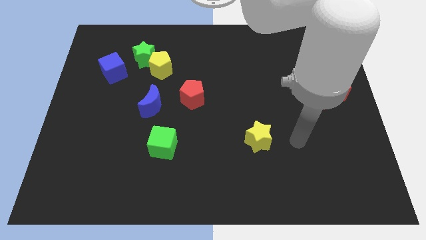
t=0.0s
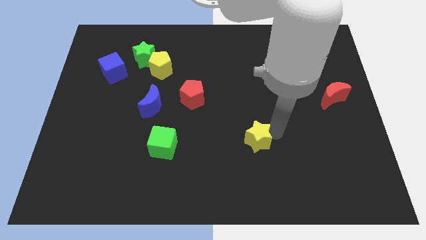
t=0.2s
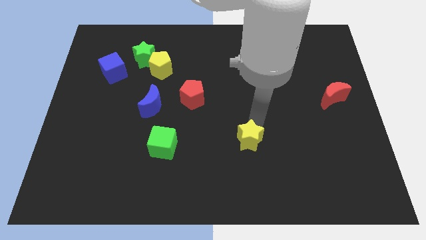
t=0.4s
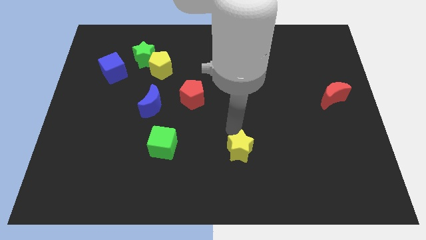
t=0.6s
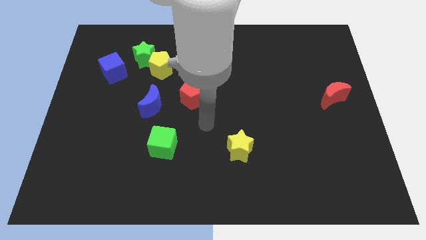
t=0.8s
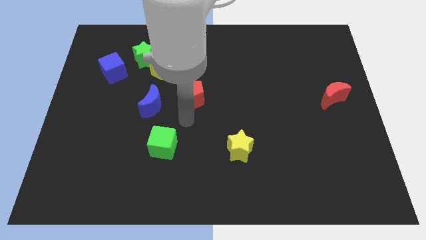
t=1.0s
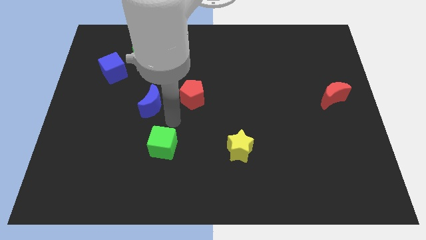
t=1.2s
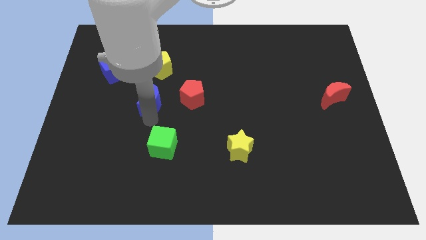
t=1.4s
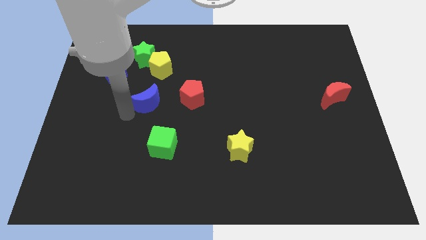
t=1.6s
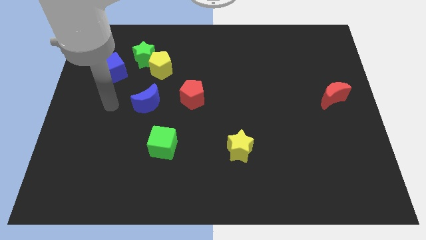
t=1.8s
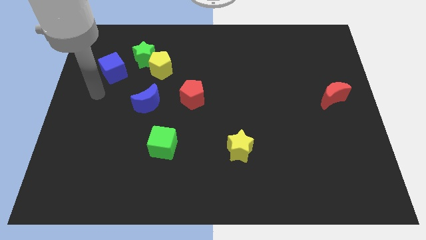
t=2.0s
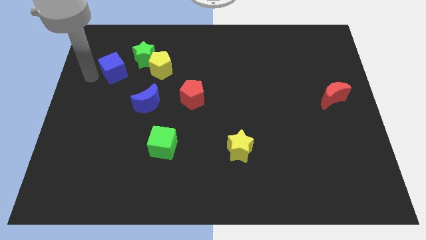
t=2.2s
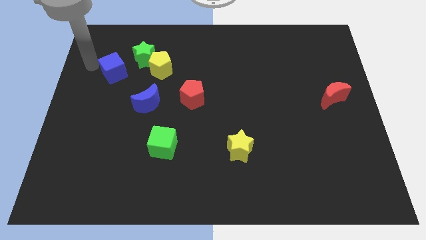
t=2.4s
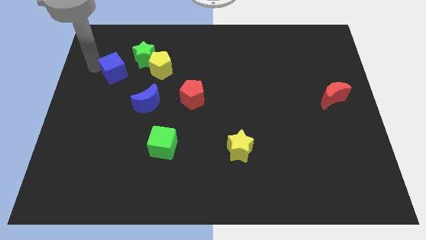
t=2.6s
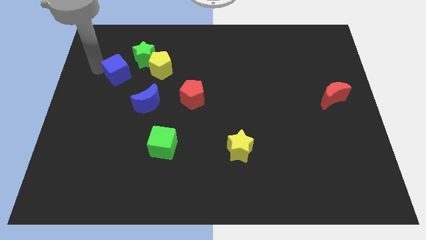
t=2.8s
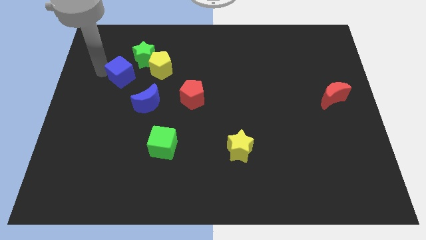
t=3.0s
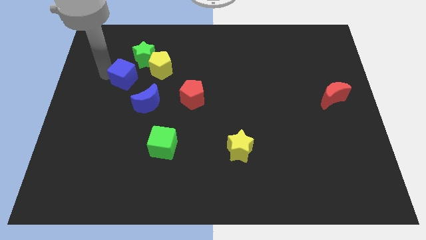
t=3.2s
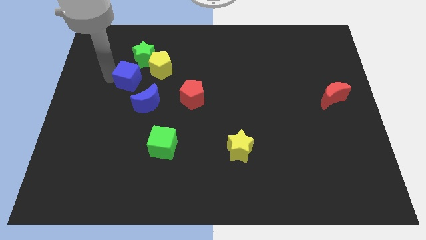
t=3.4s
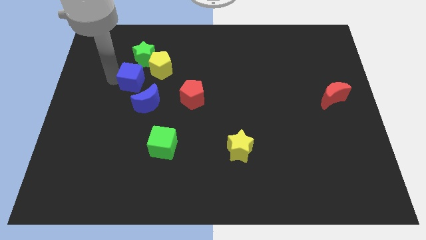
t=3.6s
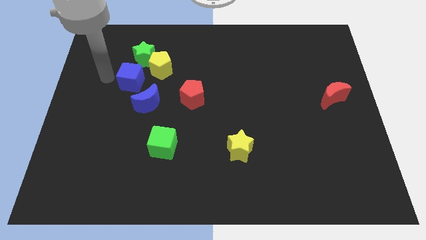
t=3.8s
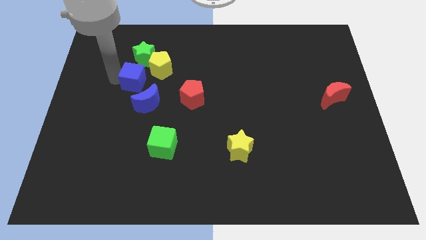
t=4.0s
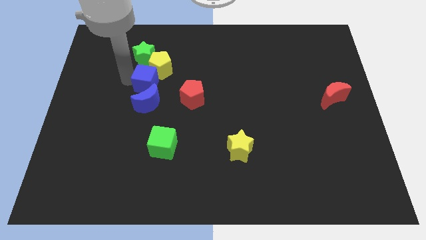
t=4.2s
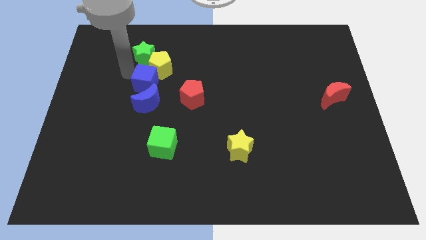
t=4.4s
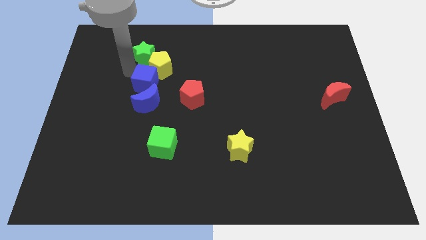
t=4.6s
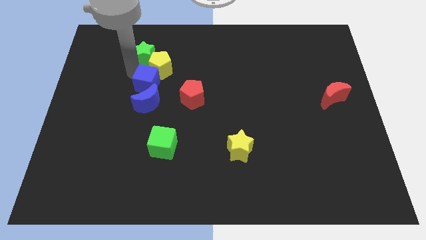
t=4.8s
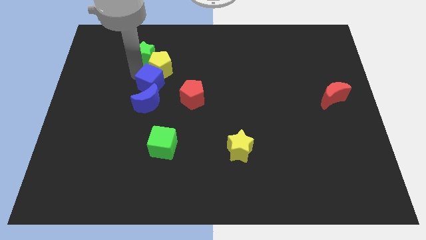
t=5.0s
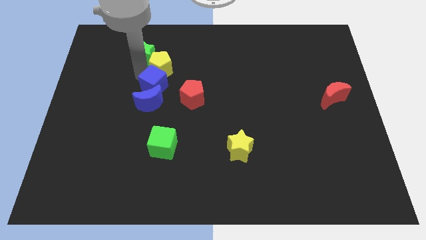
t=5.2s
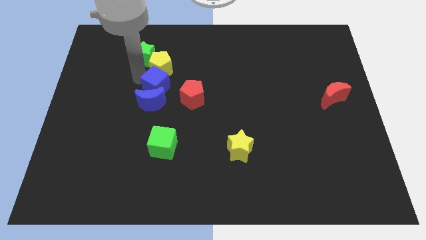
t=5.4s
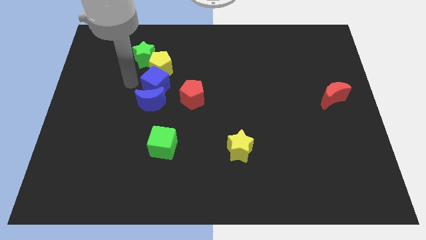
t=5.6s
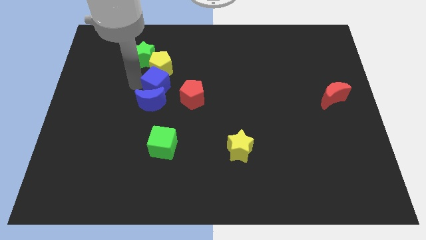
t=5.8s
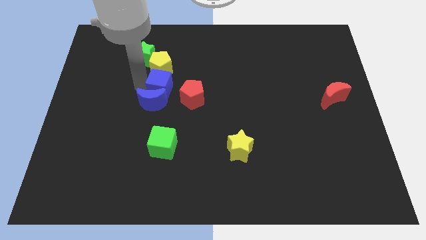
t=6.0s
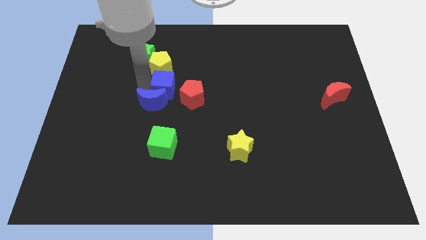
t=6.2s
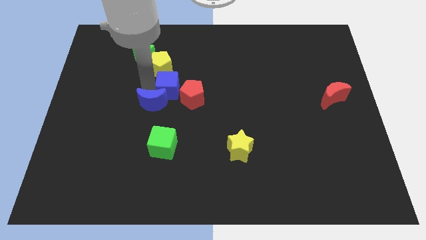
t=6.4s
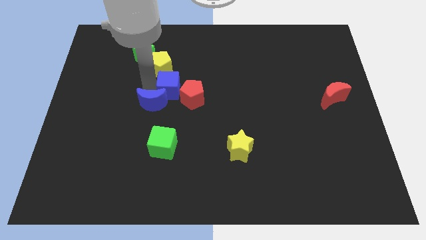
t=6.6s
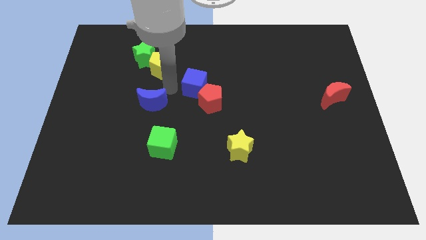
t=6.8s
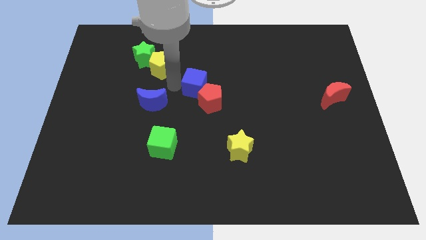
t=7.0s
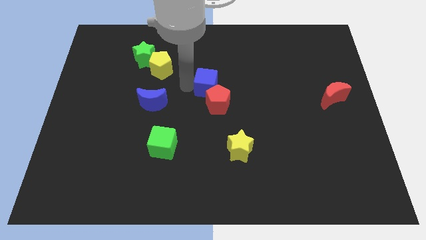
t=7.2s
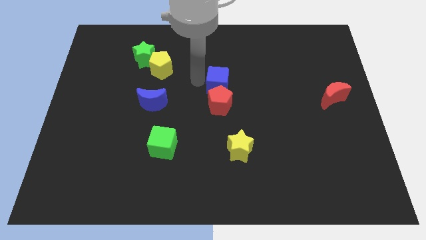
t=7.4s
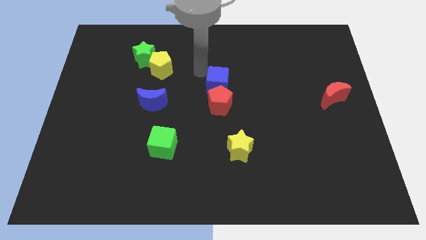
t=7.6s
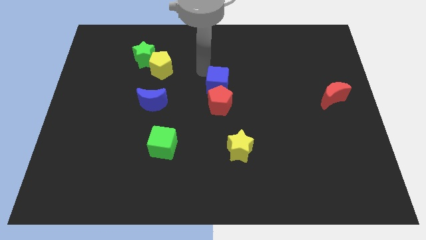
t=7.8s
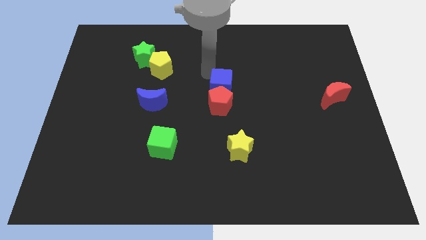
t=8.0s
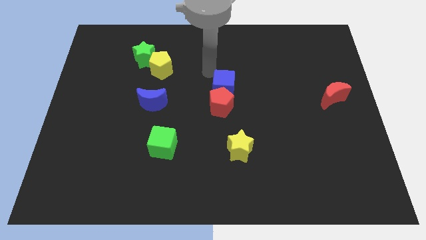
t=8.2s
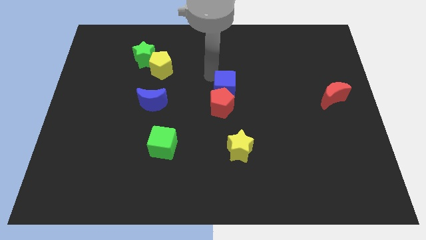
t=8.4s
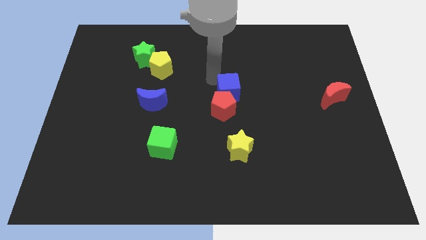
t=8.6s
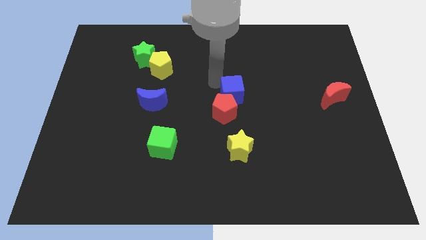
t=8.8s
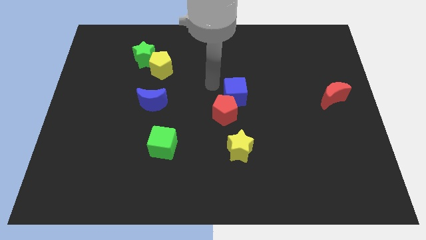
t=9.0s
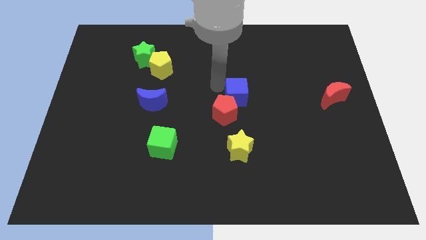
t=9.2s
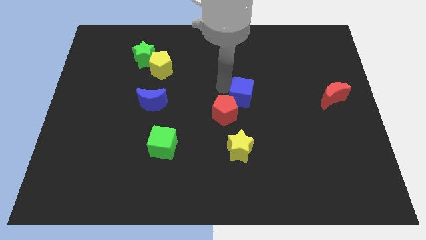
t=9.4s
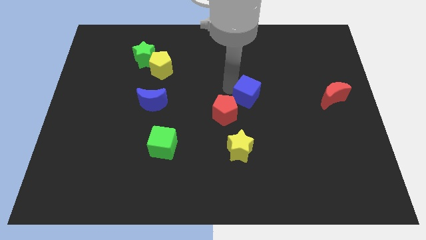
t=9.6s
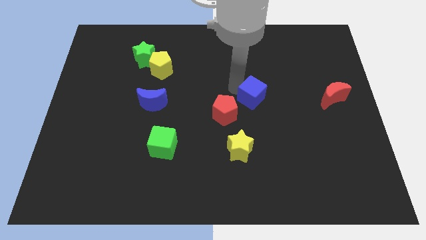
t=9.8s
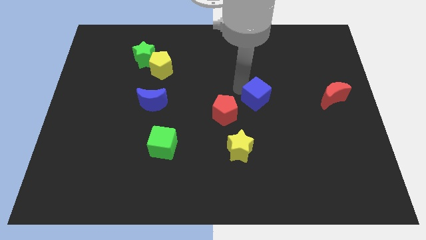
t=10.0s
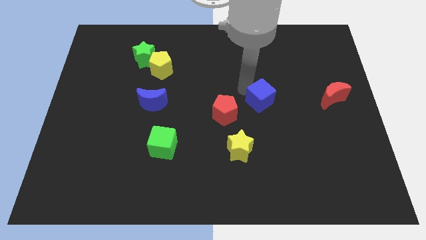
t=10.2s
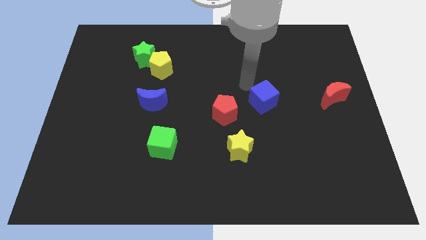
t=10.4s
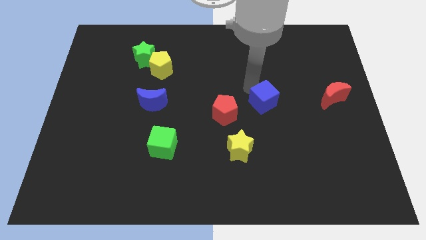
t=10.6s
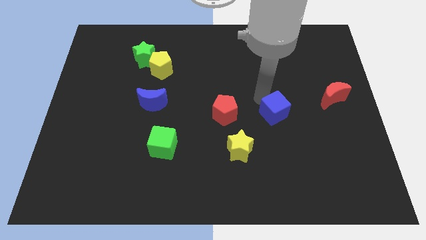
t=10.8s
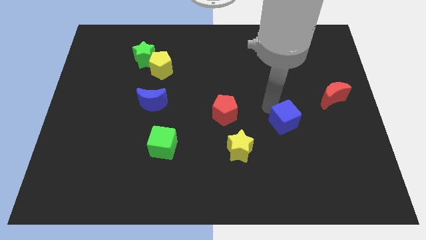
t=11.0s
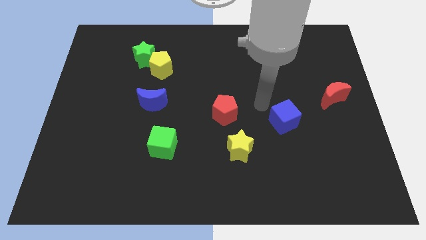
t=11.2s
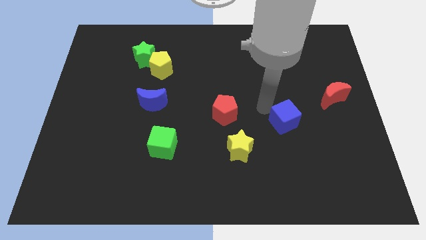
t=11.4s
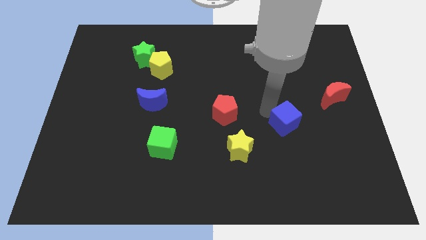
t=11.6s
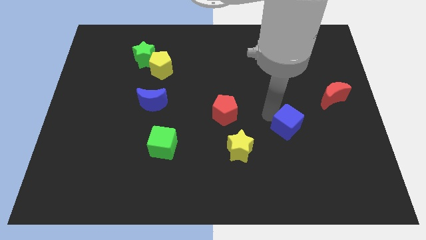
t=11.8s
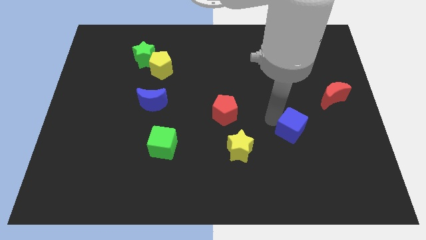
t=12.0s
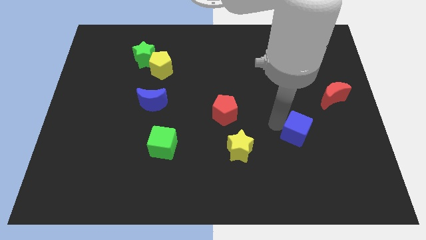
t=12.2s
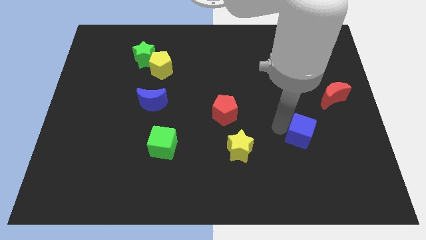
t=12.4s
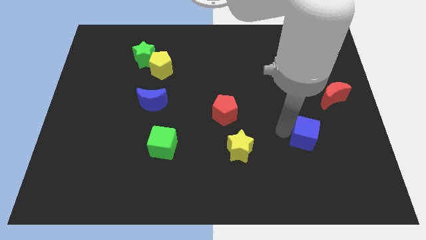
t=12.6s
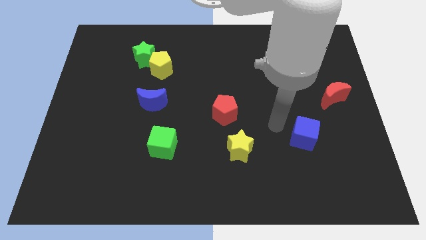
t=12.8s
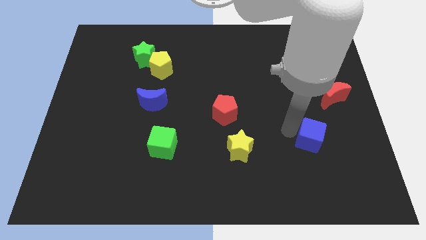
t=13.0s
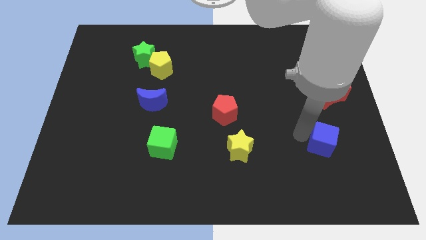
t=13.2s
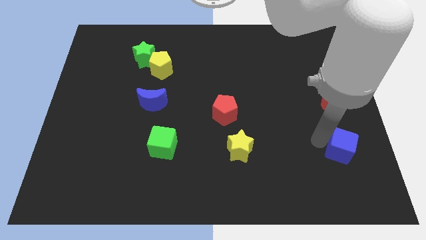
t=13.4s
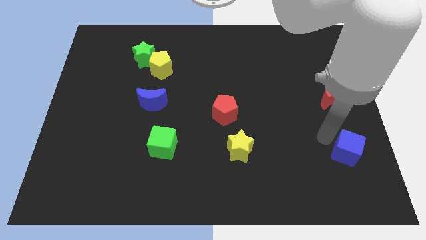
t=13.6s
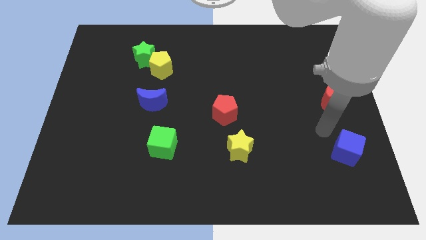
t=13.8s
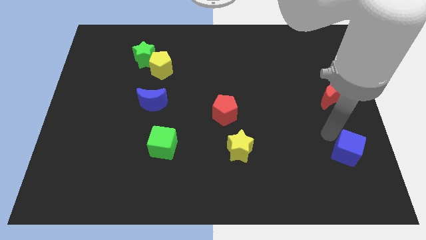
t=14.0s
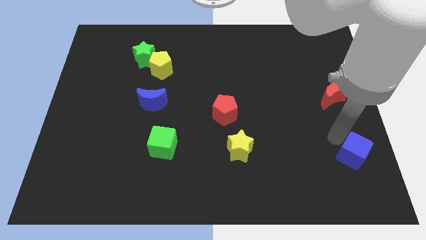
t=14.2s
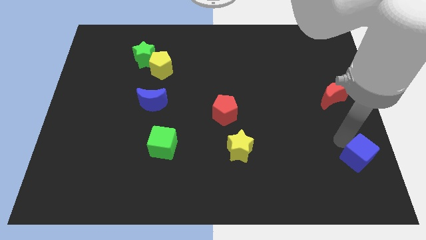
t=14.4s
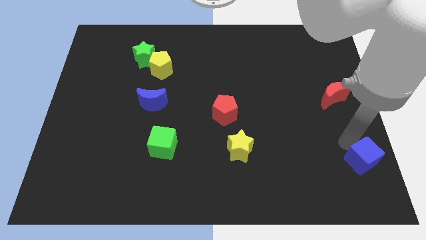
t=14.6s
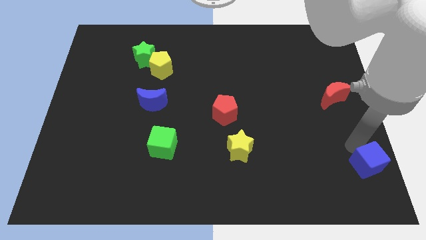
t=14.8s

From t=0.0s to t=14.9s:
slide the blue cube to the bottom right corner
